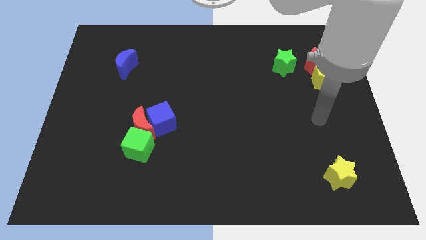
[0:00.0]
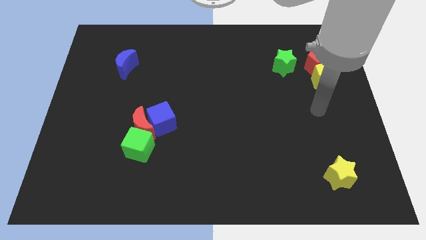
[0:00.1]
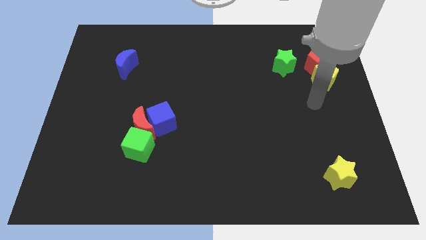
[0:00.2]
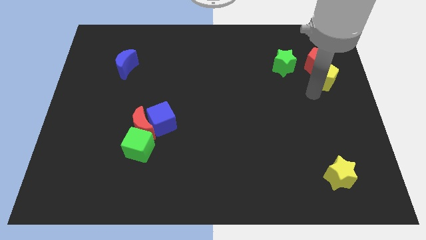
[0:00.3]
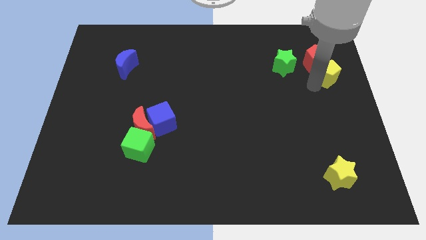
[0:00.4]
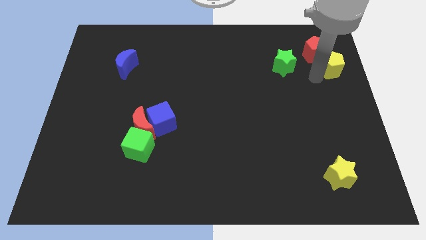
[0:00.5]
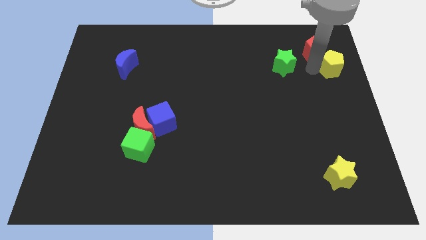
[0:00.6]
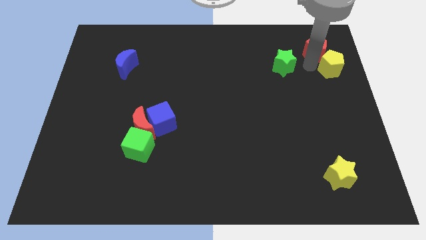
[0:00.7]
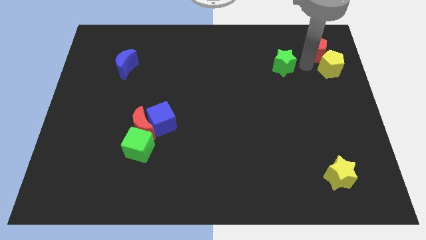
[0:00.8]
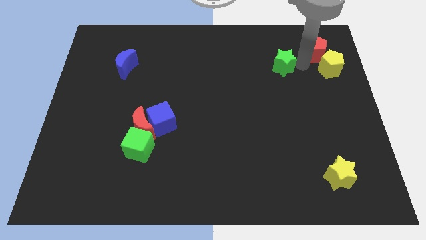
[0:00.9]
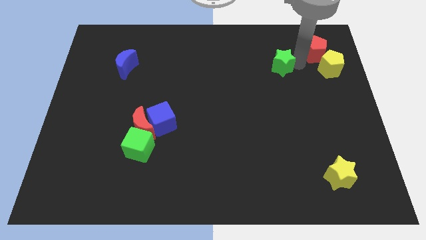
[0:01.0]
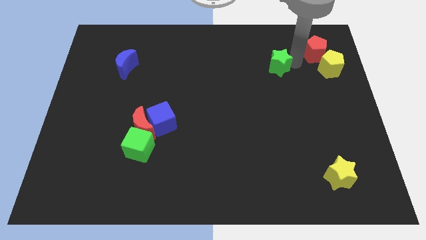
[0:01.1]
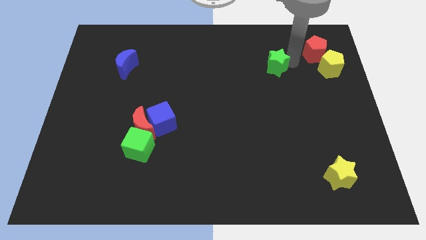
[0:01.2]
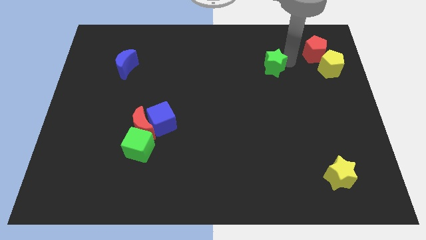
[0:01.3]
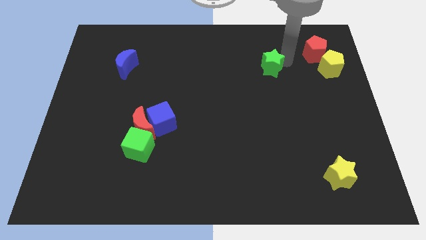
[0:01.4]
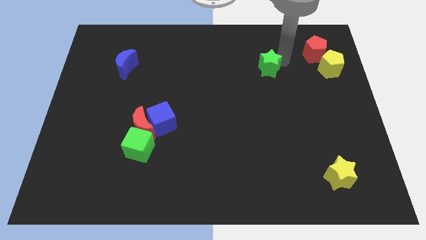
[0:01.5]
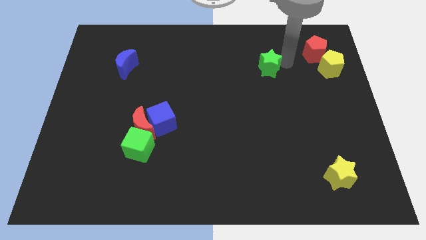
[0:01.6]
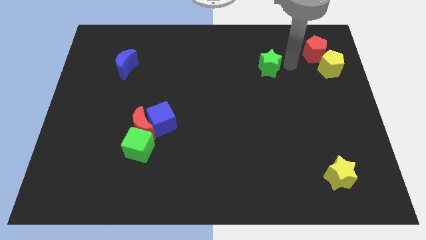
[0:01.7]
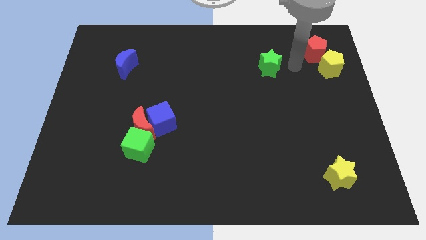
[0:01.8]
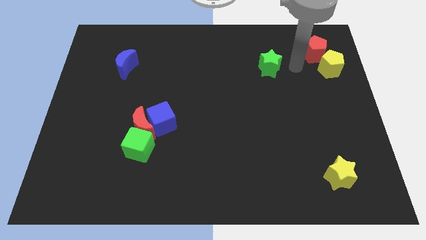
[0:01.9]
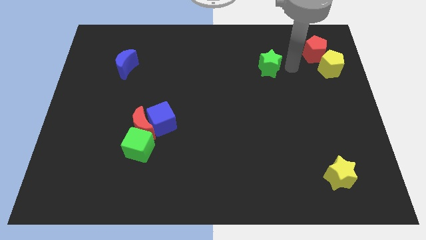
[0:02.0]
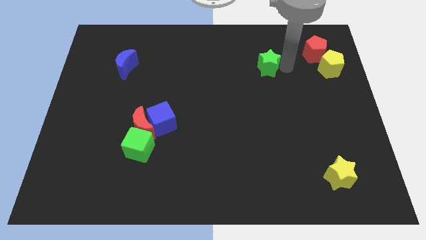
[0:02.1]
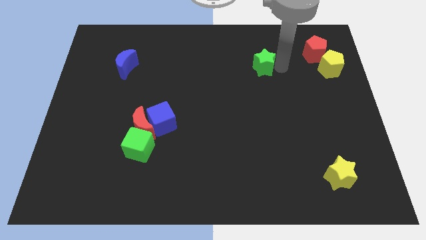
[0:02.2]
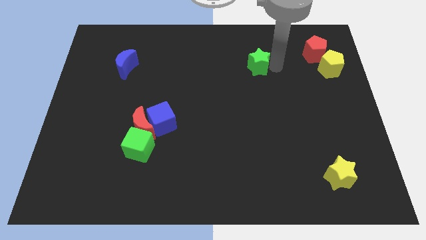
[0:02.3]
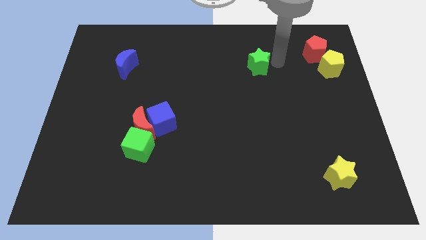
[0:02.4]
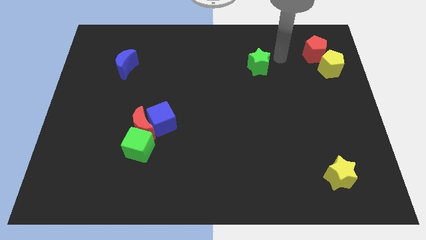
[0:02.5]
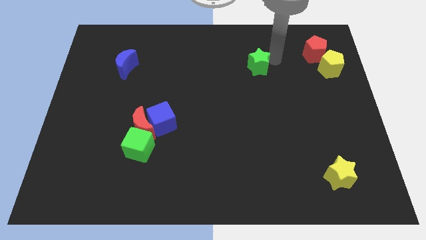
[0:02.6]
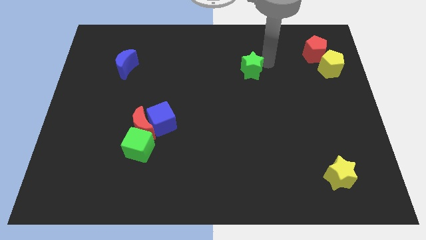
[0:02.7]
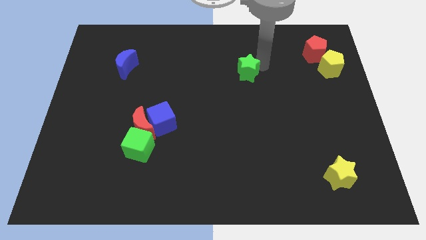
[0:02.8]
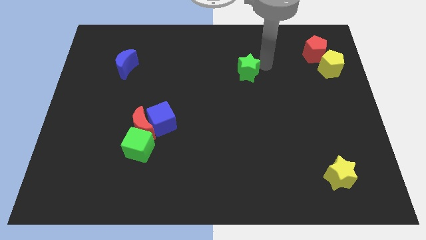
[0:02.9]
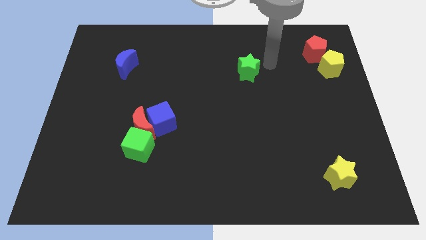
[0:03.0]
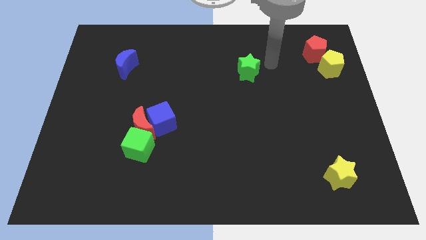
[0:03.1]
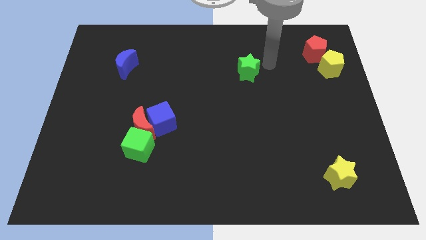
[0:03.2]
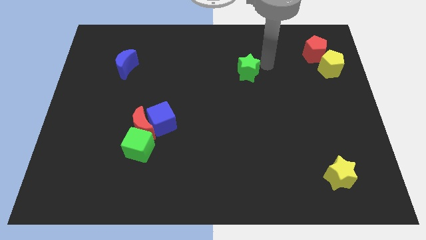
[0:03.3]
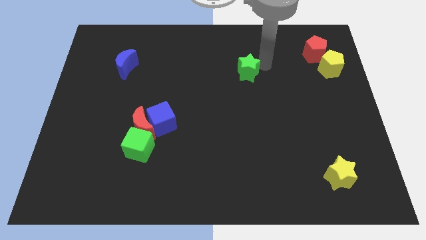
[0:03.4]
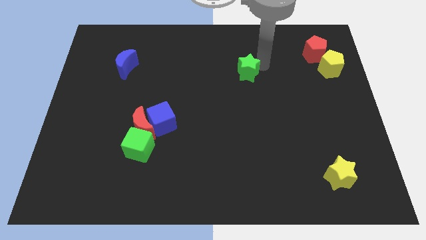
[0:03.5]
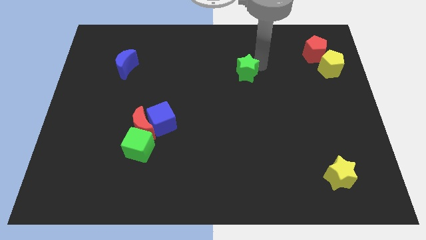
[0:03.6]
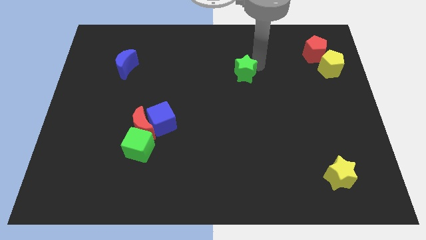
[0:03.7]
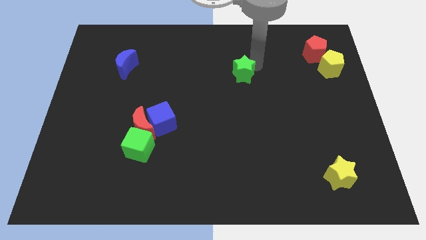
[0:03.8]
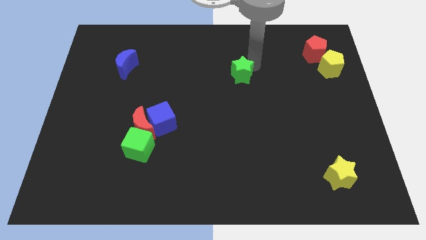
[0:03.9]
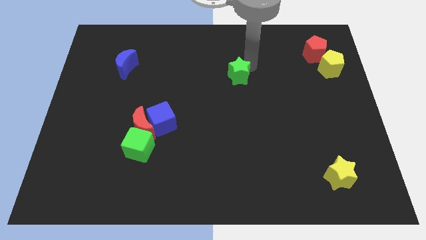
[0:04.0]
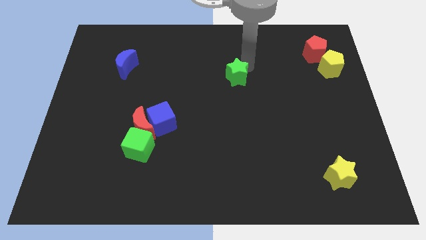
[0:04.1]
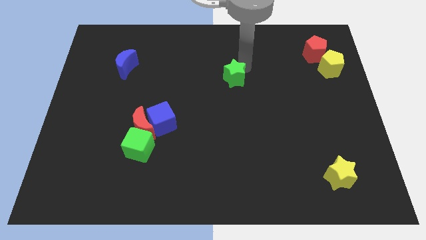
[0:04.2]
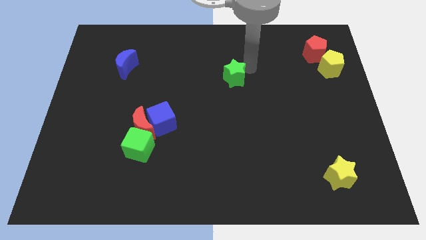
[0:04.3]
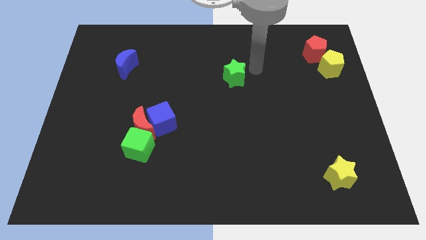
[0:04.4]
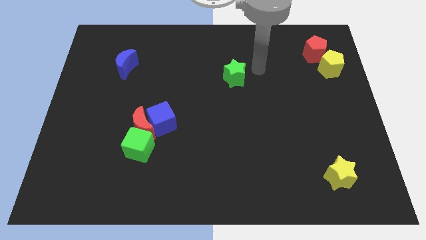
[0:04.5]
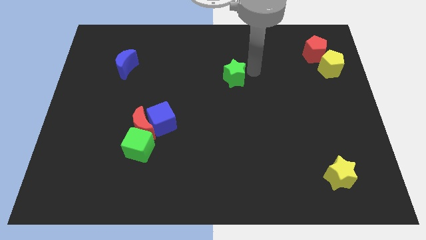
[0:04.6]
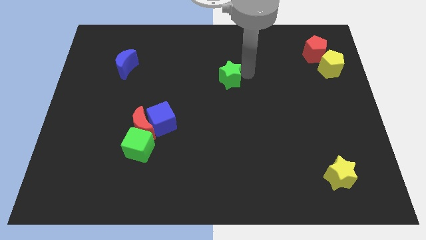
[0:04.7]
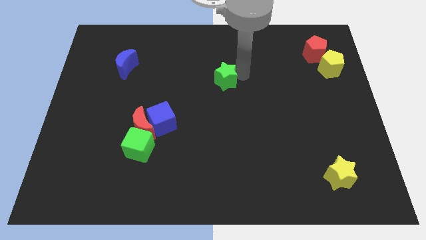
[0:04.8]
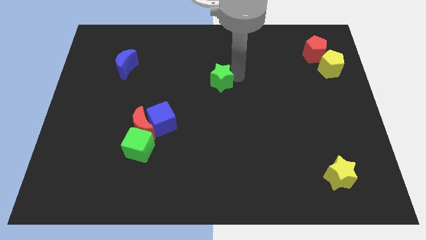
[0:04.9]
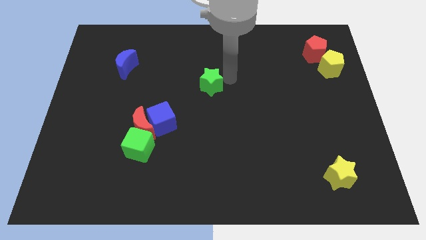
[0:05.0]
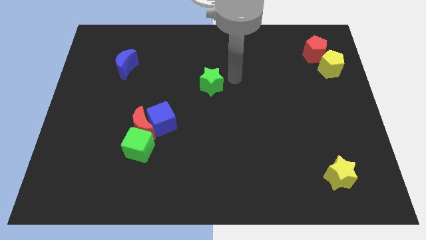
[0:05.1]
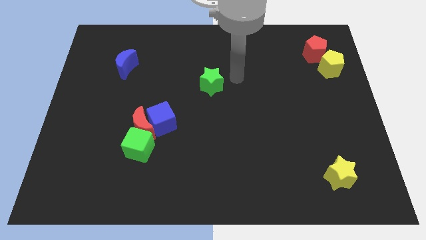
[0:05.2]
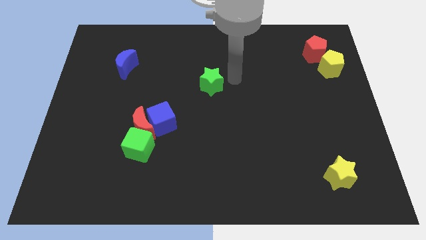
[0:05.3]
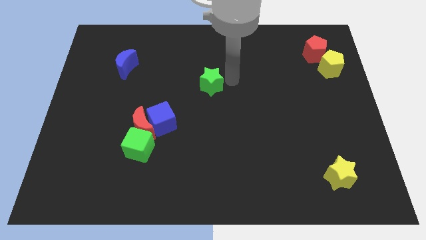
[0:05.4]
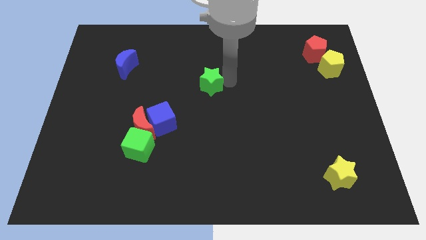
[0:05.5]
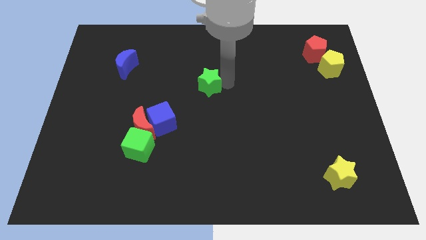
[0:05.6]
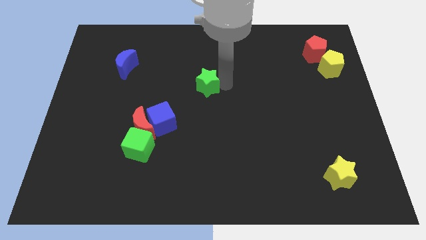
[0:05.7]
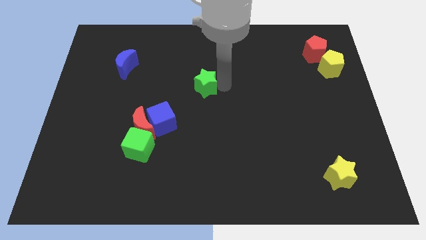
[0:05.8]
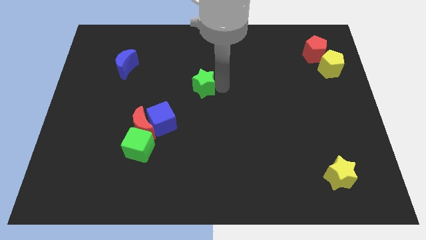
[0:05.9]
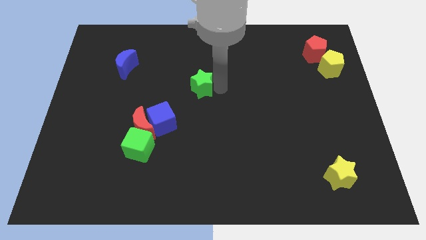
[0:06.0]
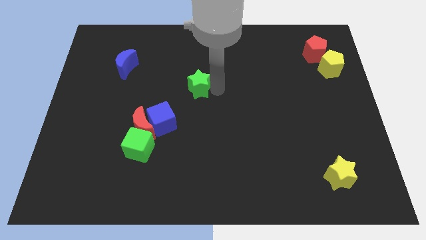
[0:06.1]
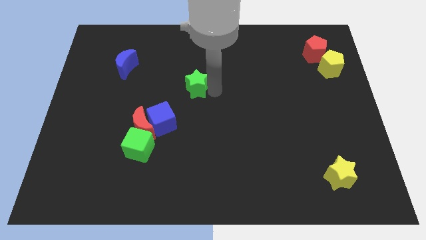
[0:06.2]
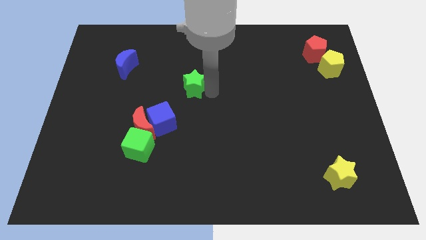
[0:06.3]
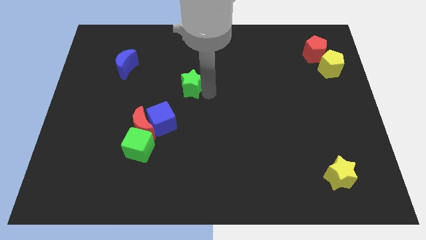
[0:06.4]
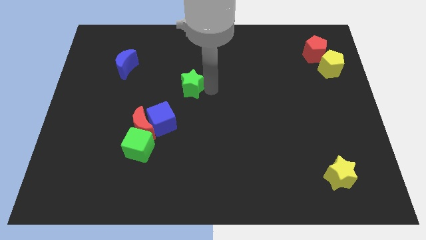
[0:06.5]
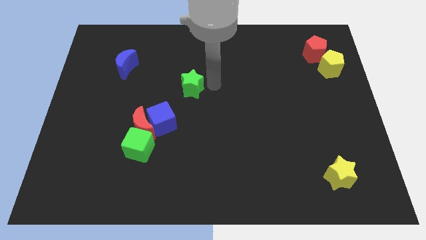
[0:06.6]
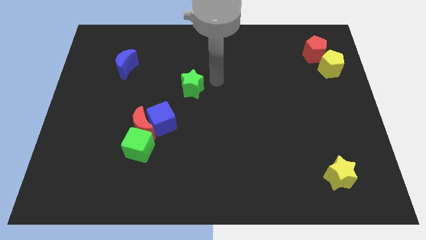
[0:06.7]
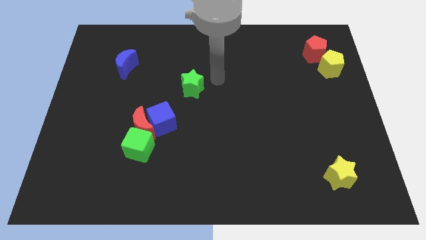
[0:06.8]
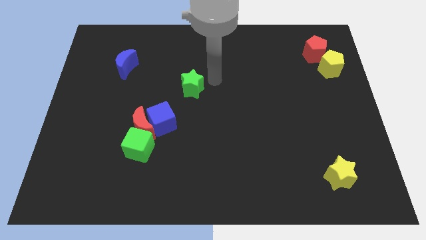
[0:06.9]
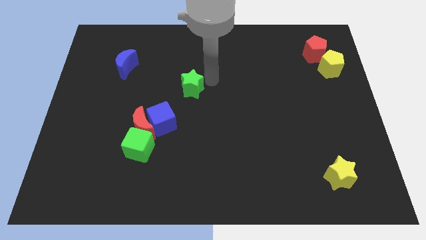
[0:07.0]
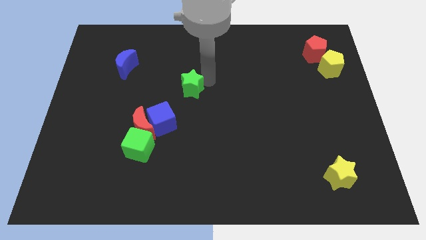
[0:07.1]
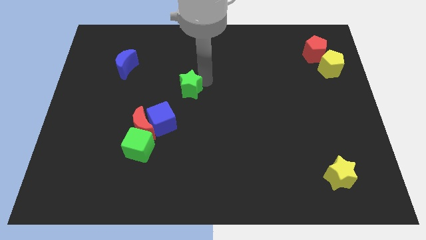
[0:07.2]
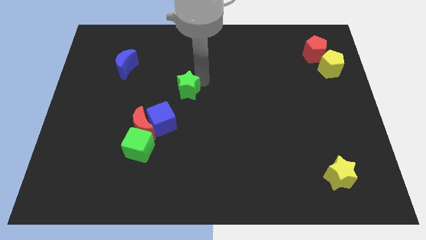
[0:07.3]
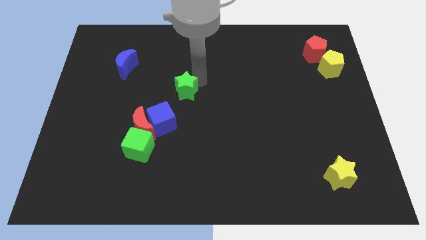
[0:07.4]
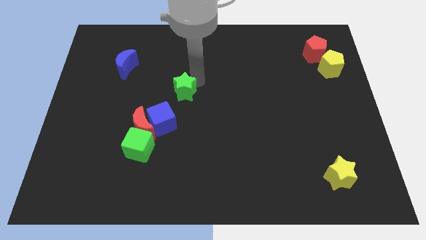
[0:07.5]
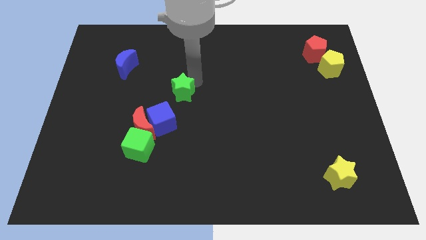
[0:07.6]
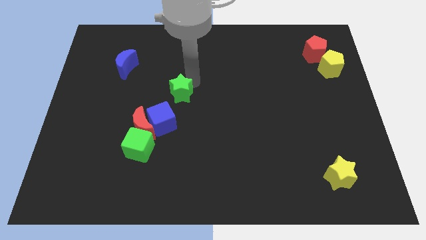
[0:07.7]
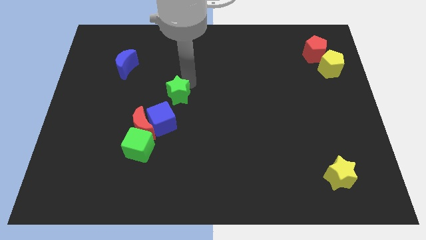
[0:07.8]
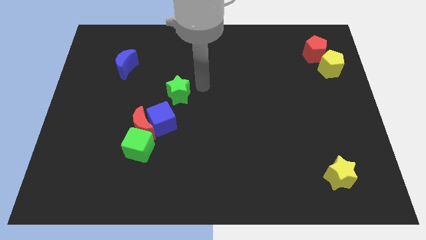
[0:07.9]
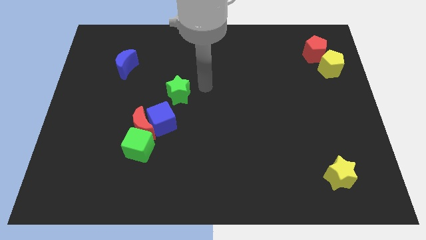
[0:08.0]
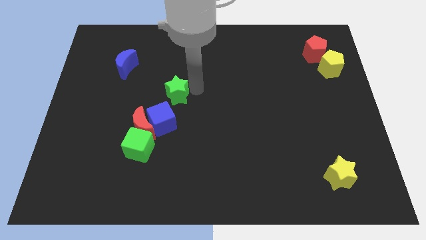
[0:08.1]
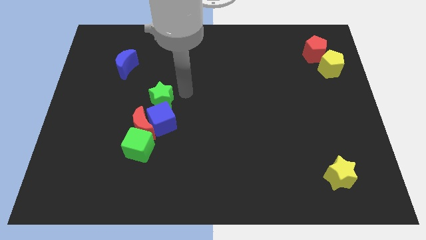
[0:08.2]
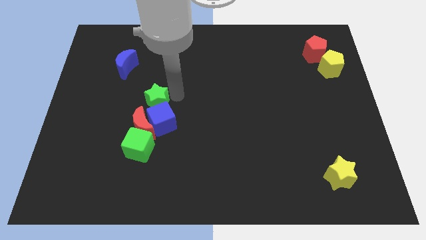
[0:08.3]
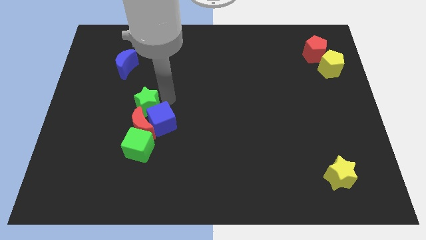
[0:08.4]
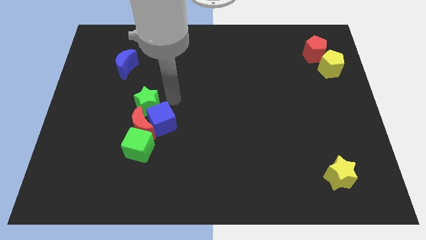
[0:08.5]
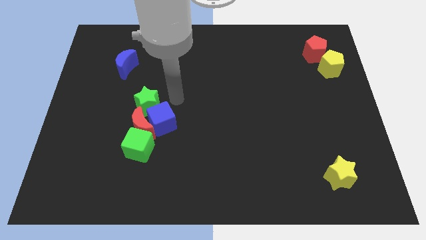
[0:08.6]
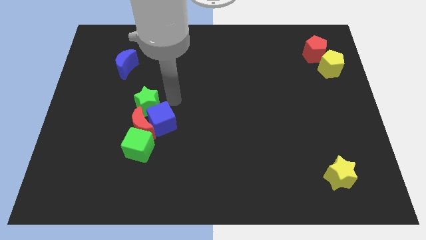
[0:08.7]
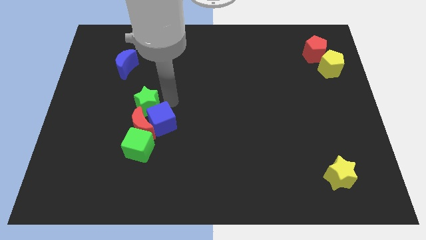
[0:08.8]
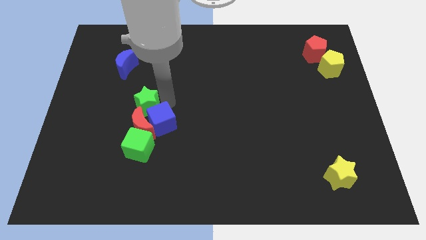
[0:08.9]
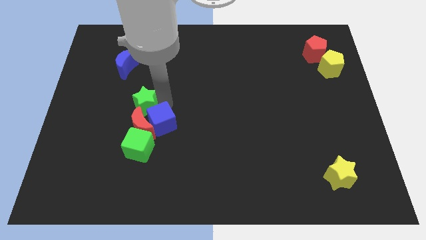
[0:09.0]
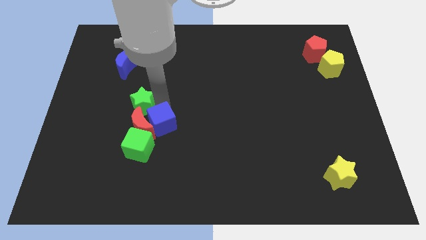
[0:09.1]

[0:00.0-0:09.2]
push the green star diagonally up and to the left of the red moon
